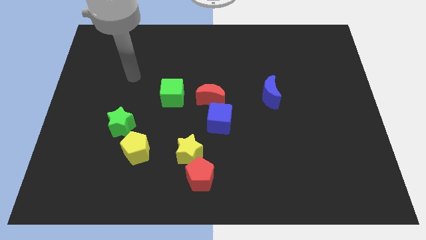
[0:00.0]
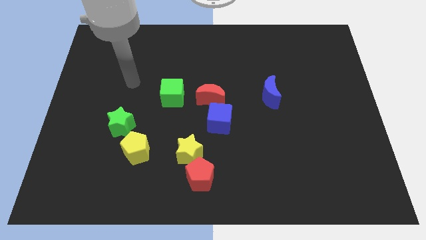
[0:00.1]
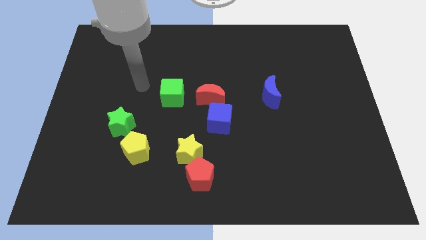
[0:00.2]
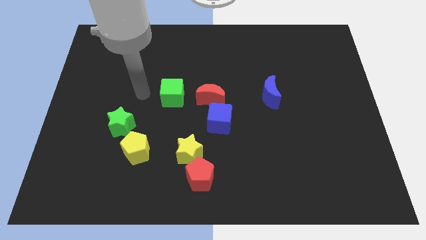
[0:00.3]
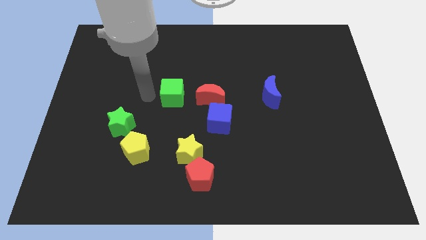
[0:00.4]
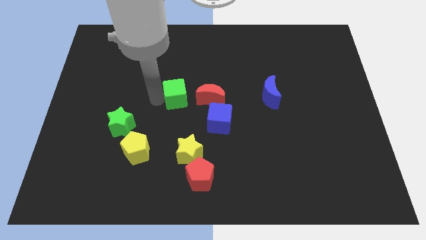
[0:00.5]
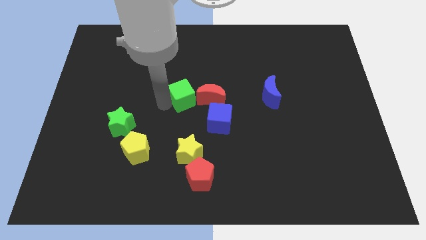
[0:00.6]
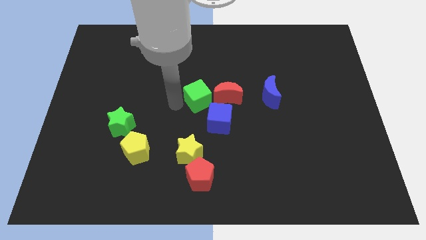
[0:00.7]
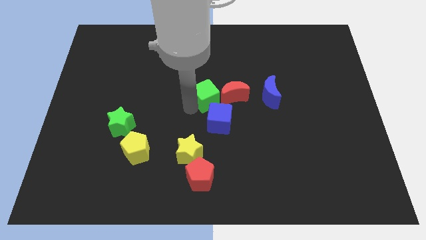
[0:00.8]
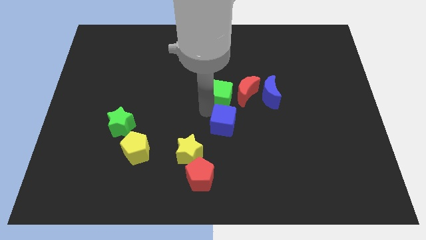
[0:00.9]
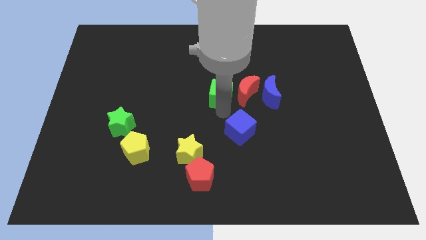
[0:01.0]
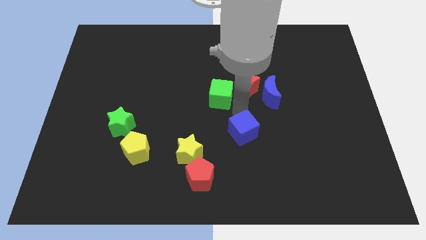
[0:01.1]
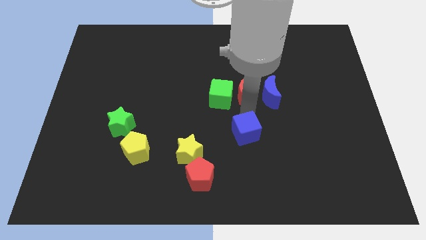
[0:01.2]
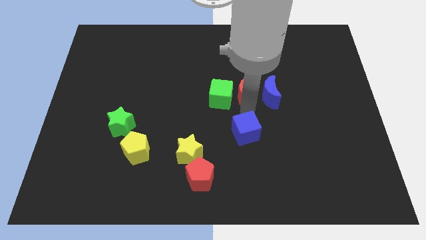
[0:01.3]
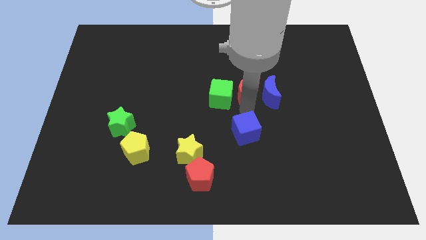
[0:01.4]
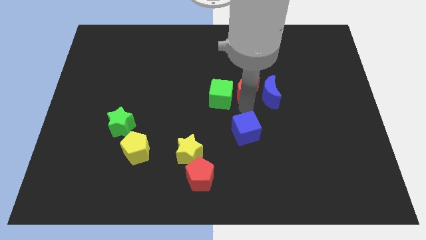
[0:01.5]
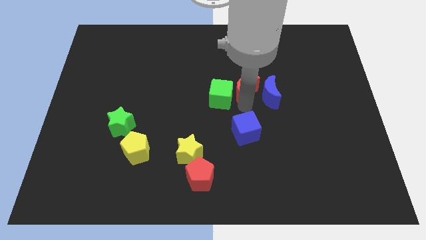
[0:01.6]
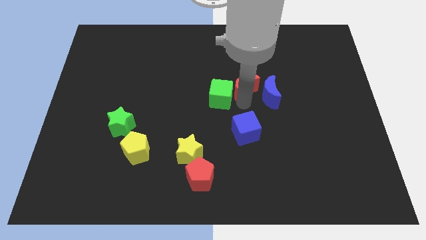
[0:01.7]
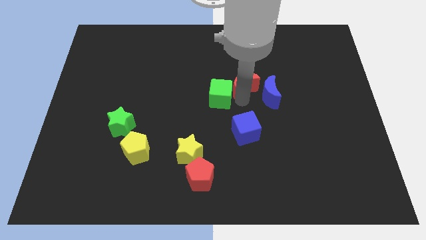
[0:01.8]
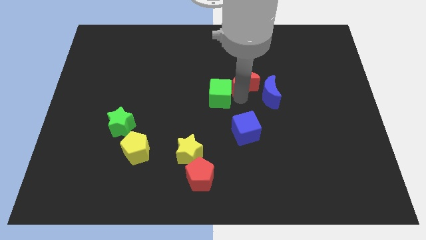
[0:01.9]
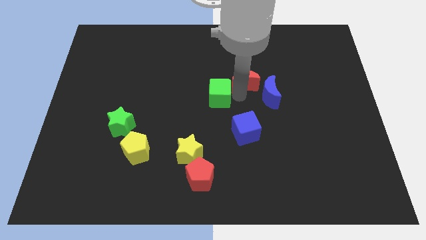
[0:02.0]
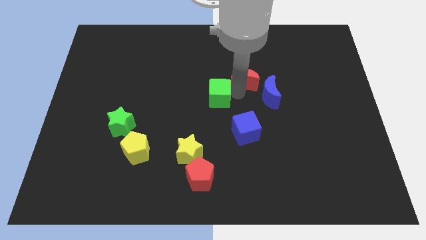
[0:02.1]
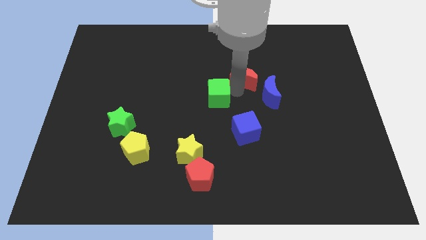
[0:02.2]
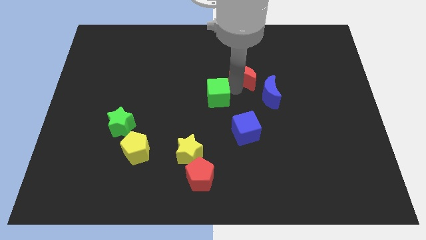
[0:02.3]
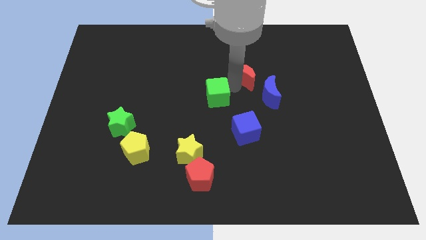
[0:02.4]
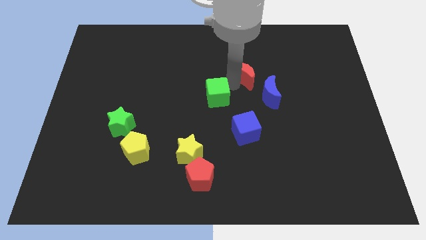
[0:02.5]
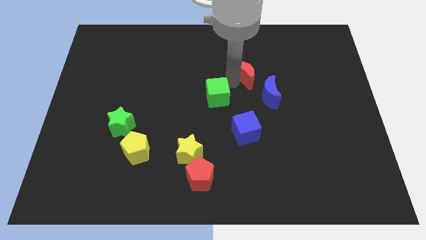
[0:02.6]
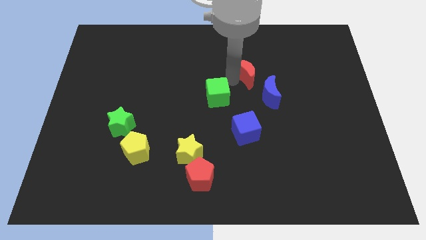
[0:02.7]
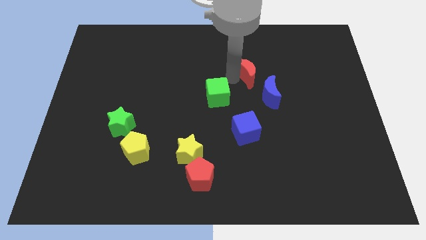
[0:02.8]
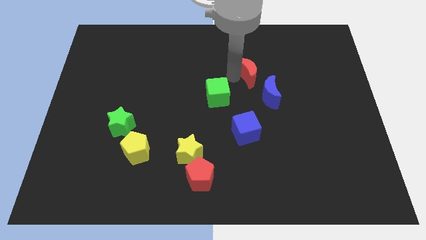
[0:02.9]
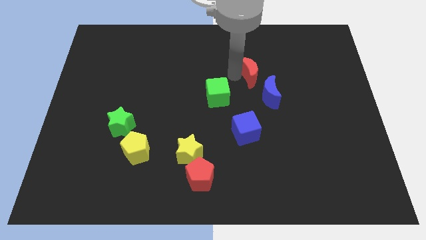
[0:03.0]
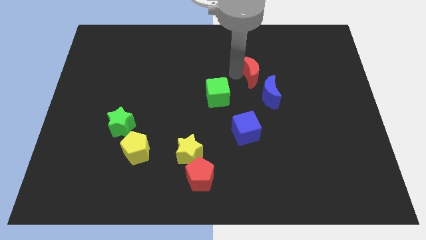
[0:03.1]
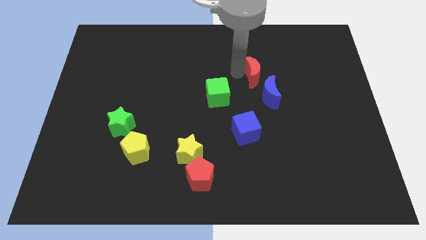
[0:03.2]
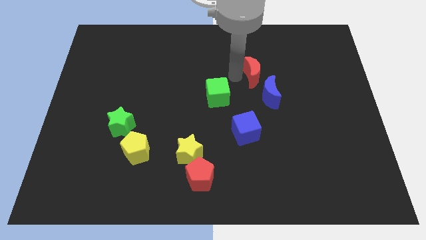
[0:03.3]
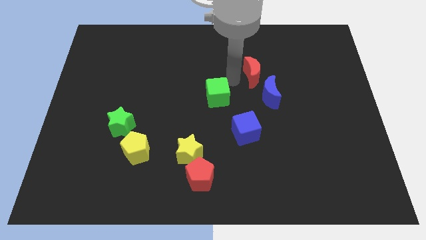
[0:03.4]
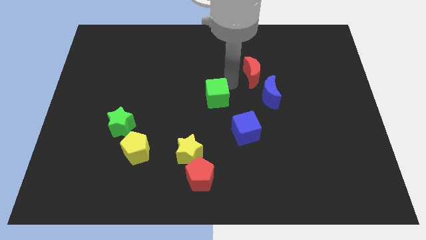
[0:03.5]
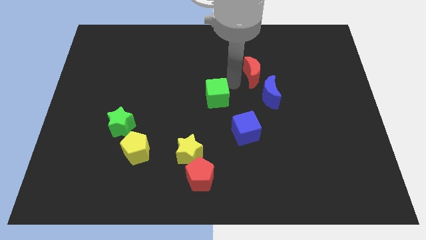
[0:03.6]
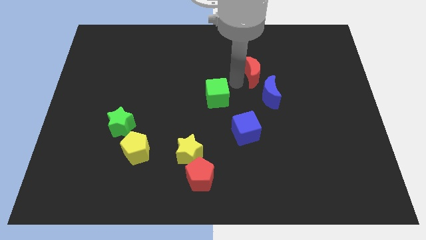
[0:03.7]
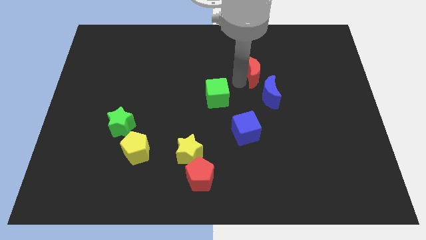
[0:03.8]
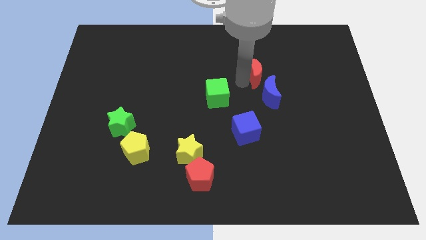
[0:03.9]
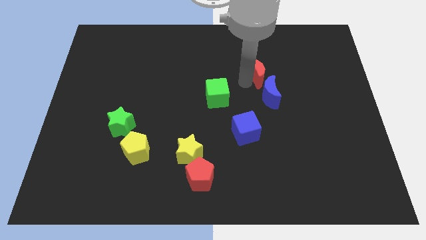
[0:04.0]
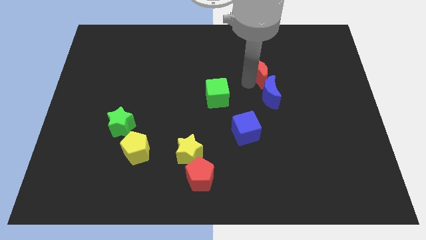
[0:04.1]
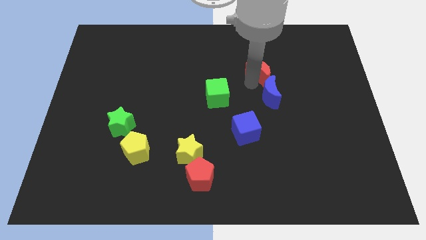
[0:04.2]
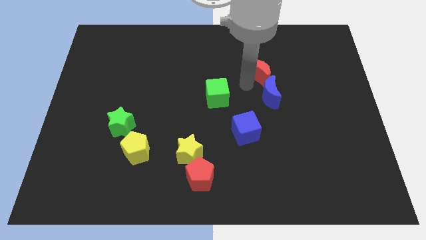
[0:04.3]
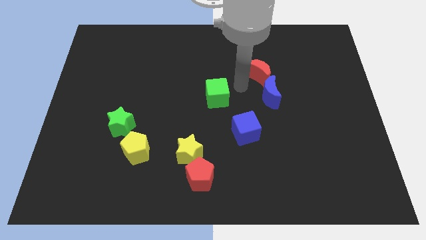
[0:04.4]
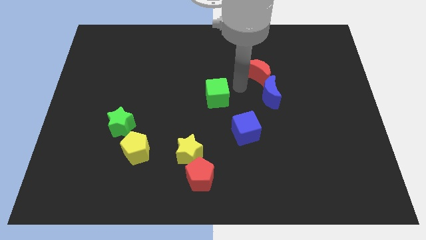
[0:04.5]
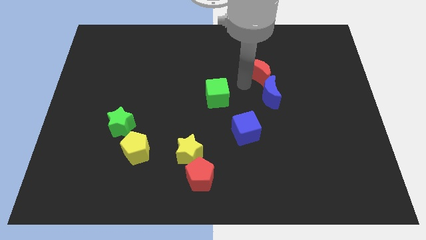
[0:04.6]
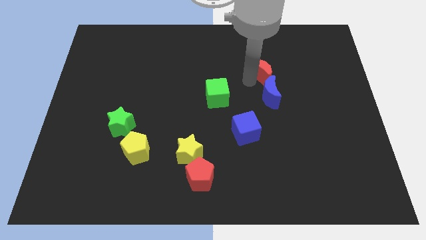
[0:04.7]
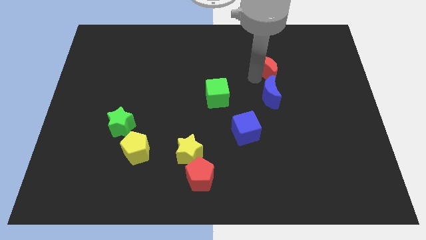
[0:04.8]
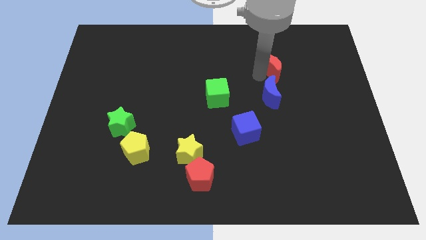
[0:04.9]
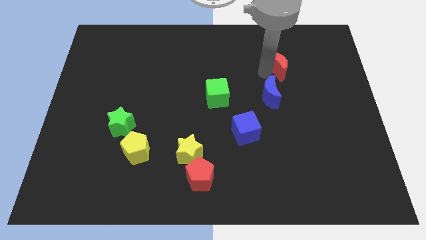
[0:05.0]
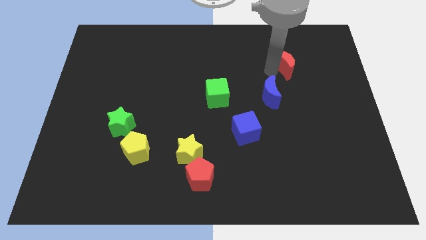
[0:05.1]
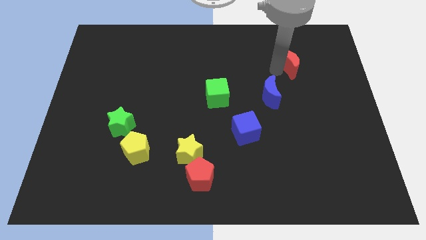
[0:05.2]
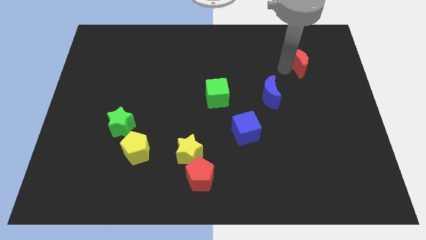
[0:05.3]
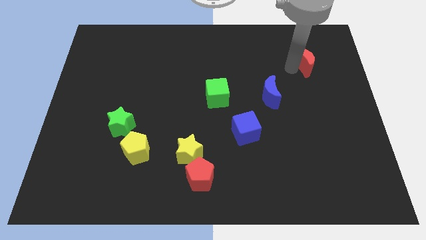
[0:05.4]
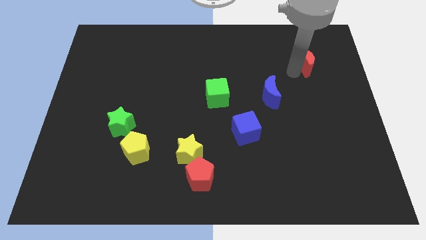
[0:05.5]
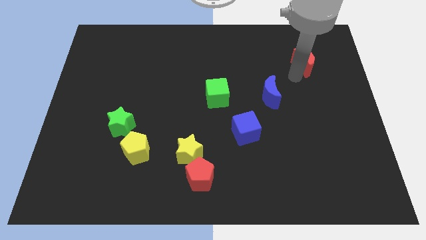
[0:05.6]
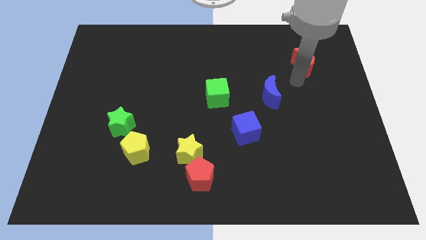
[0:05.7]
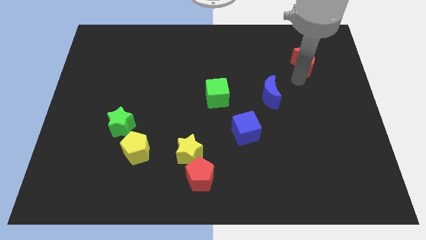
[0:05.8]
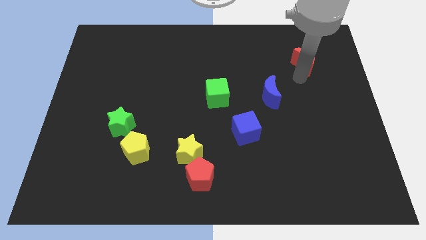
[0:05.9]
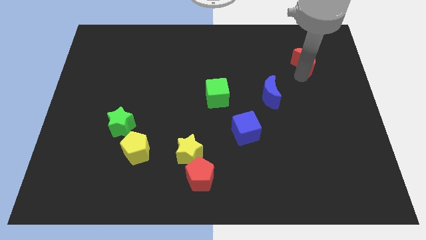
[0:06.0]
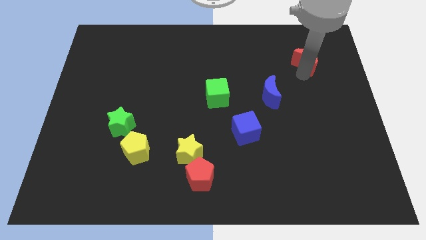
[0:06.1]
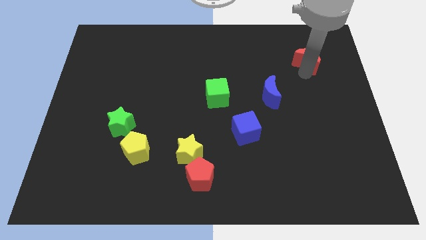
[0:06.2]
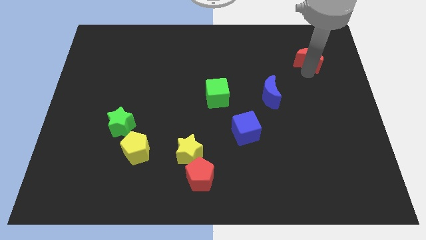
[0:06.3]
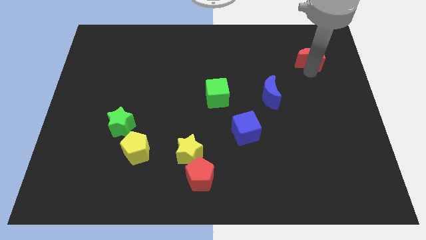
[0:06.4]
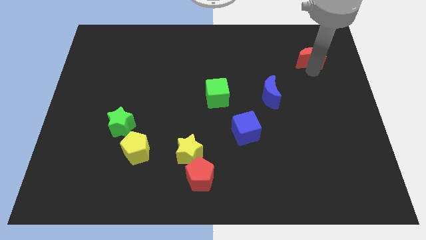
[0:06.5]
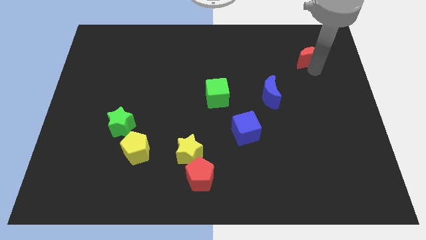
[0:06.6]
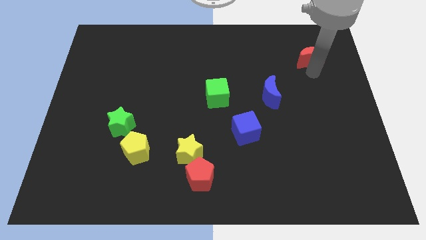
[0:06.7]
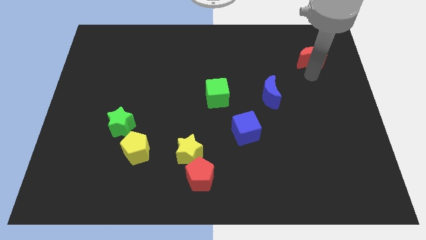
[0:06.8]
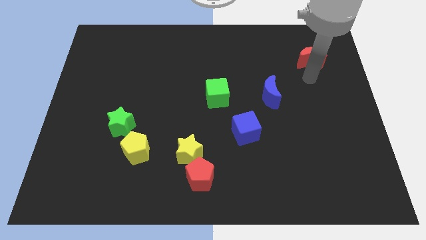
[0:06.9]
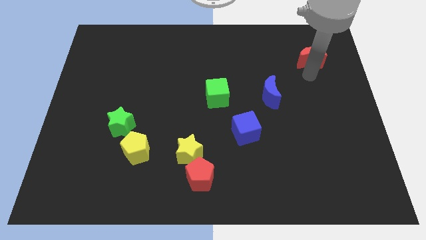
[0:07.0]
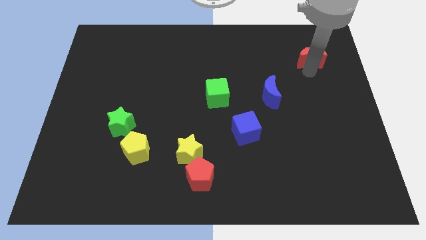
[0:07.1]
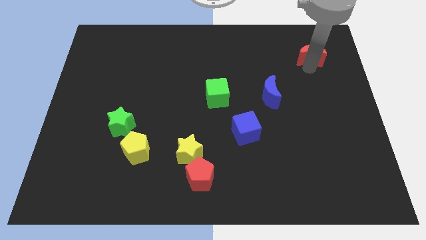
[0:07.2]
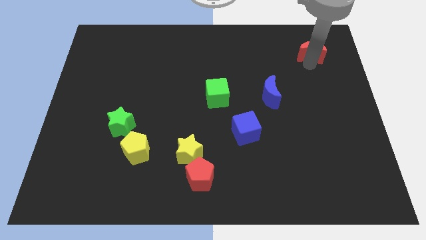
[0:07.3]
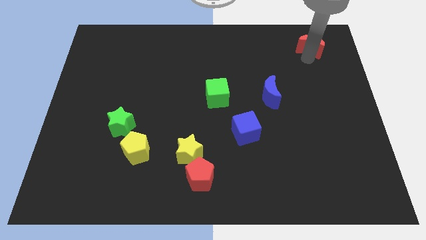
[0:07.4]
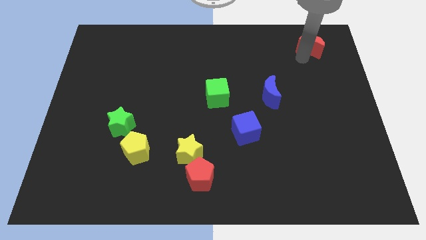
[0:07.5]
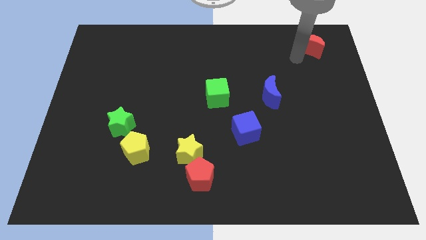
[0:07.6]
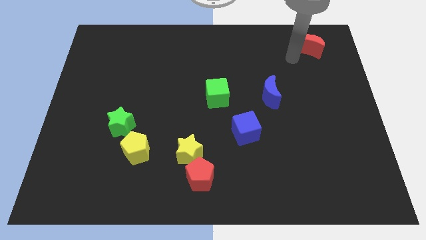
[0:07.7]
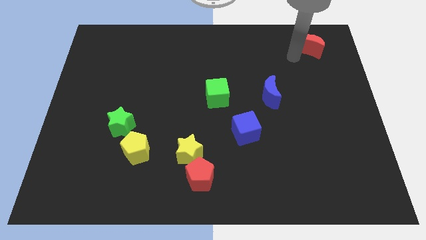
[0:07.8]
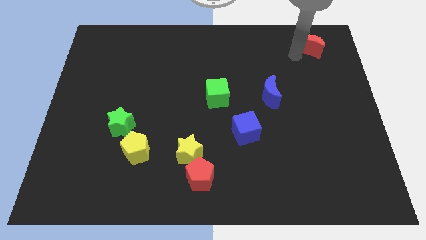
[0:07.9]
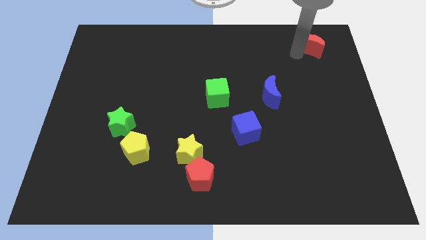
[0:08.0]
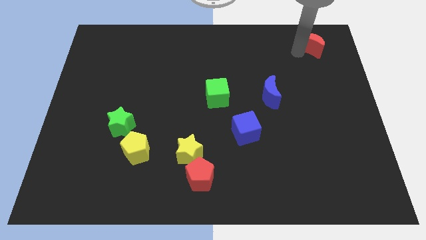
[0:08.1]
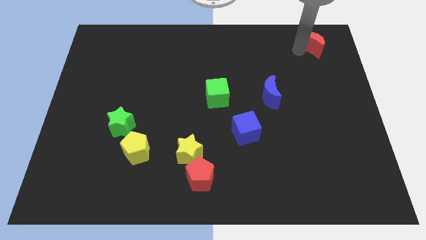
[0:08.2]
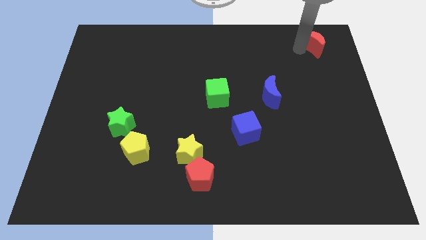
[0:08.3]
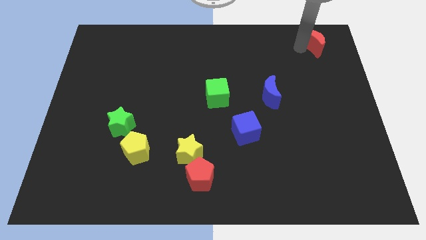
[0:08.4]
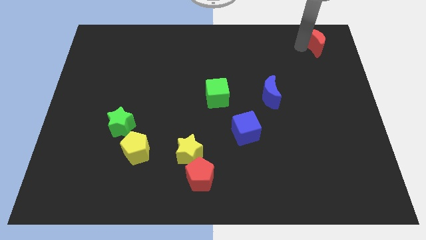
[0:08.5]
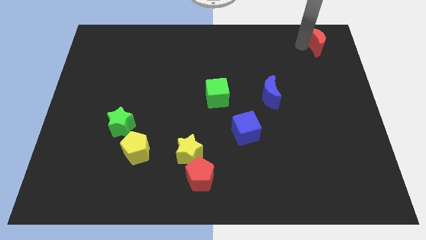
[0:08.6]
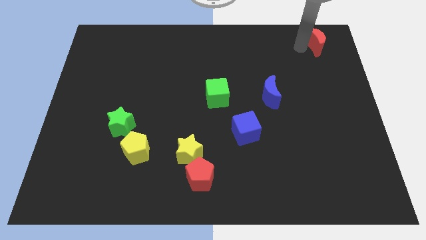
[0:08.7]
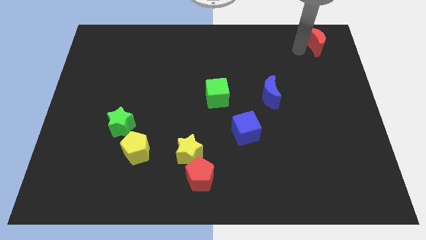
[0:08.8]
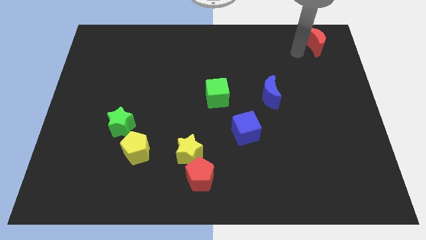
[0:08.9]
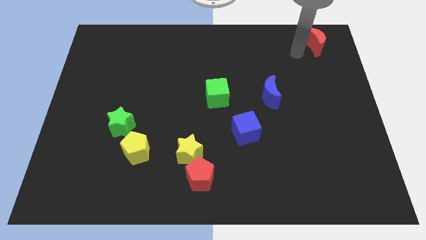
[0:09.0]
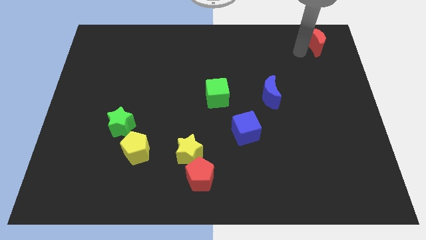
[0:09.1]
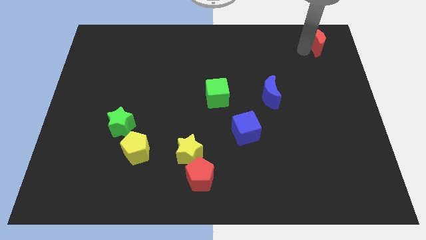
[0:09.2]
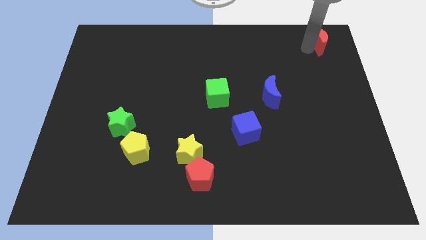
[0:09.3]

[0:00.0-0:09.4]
put the red moon to the top right corner
